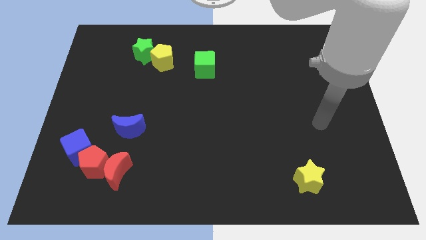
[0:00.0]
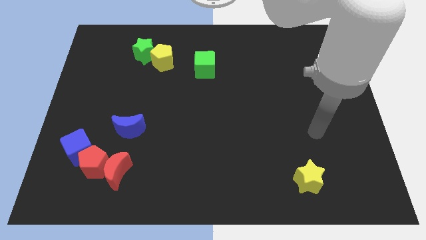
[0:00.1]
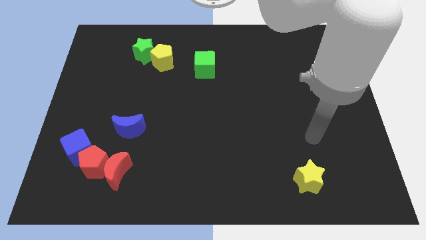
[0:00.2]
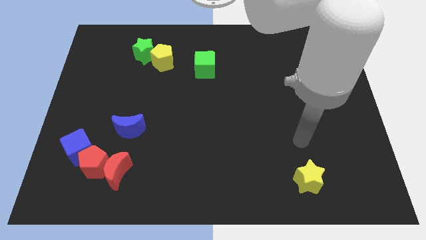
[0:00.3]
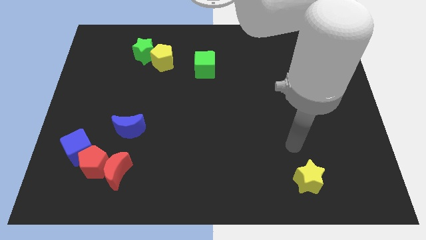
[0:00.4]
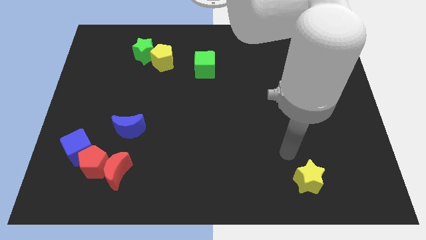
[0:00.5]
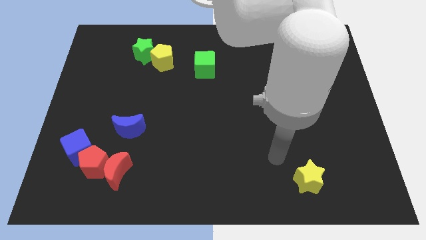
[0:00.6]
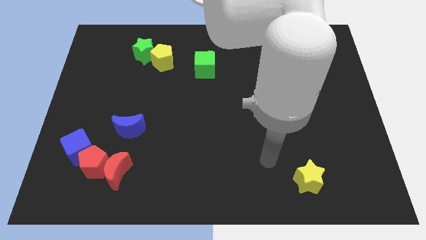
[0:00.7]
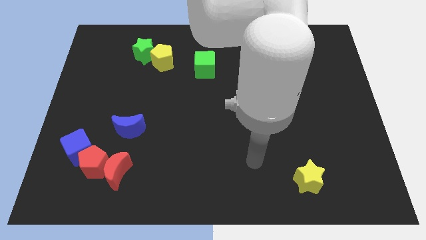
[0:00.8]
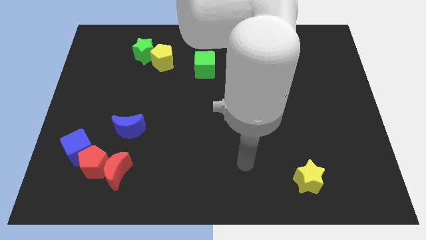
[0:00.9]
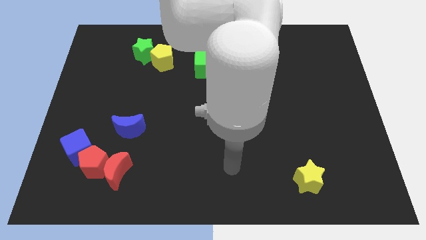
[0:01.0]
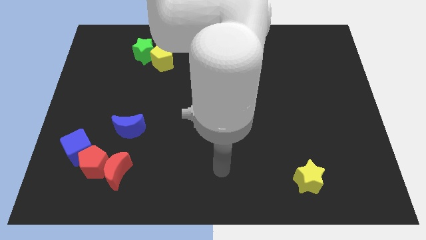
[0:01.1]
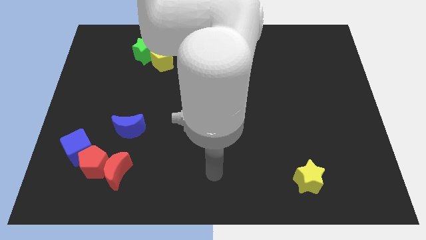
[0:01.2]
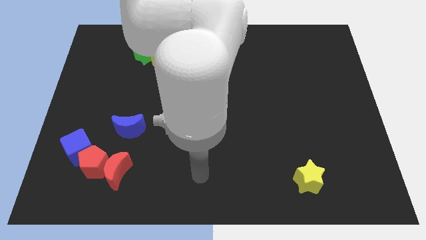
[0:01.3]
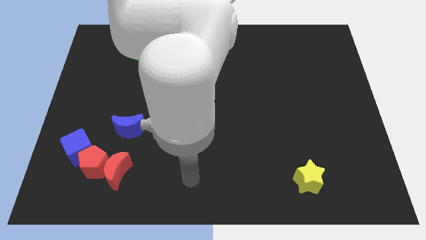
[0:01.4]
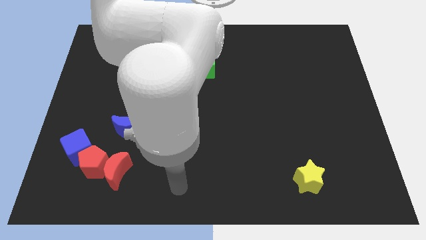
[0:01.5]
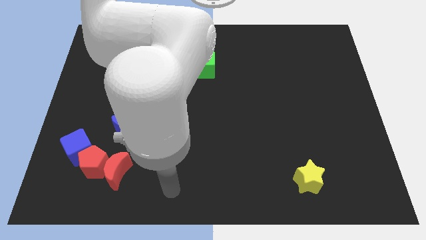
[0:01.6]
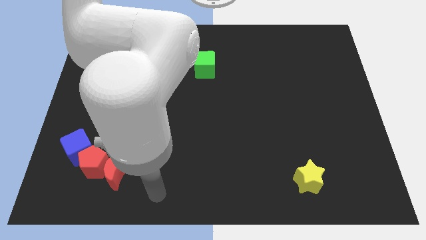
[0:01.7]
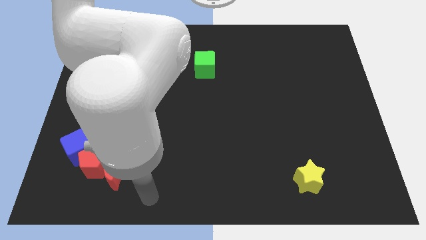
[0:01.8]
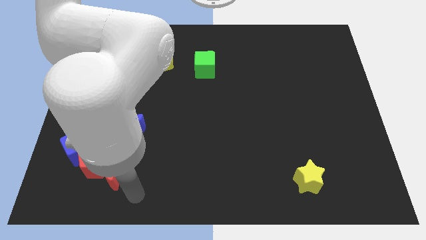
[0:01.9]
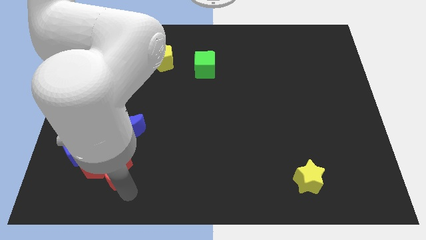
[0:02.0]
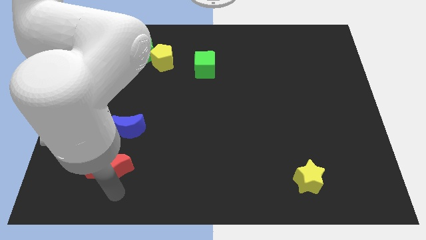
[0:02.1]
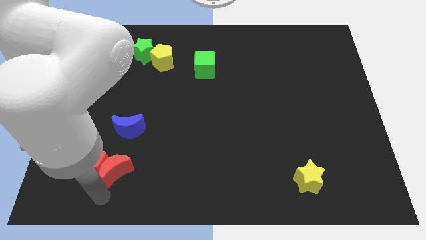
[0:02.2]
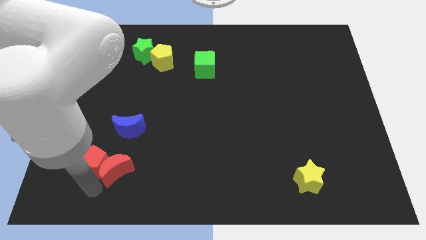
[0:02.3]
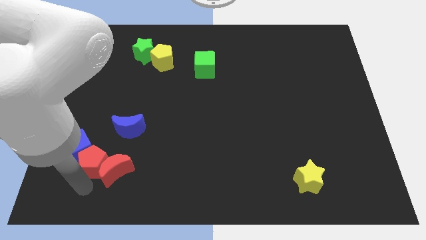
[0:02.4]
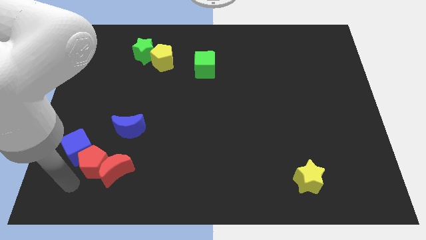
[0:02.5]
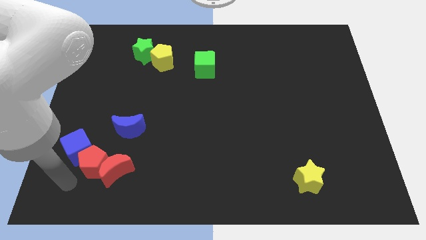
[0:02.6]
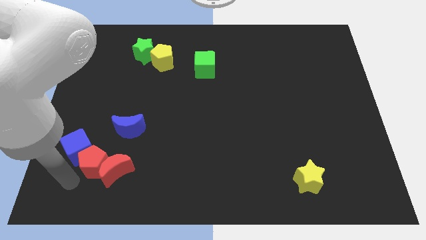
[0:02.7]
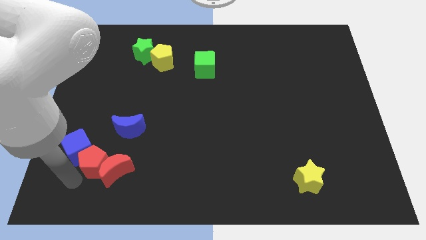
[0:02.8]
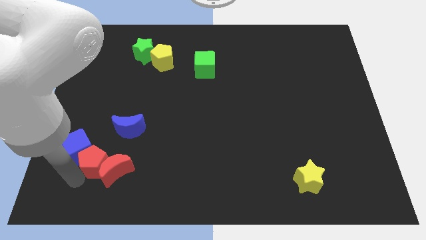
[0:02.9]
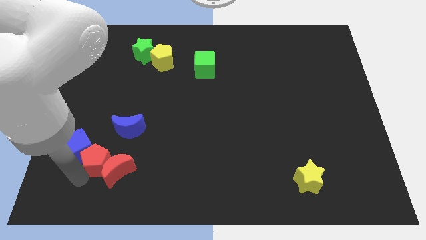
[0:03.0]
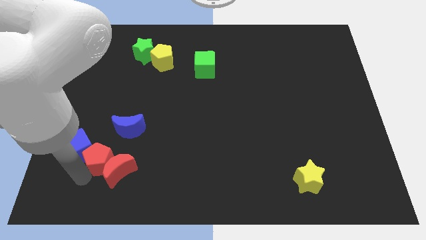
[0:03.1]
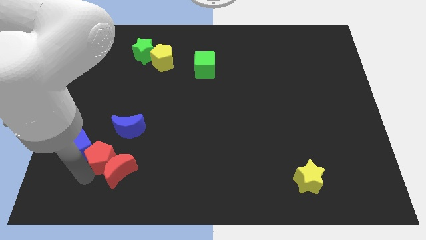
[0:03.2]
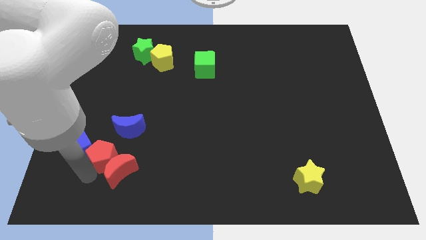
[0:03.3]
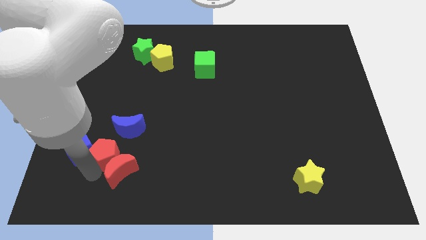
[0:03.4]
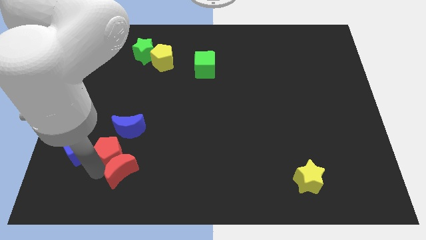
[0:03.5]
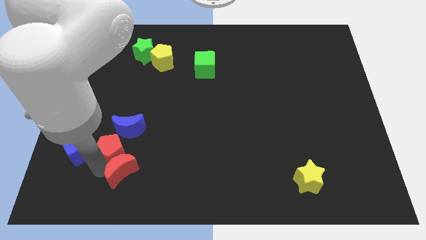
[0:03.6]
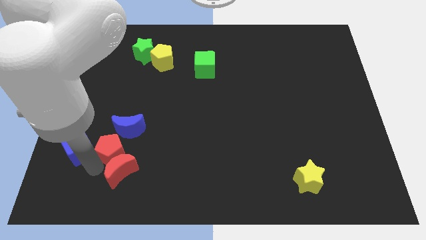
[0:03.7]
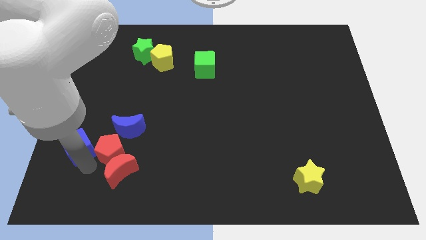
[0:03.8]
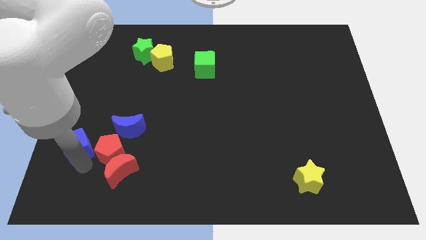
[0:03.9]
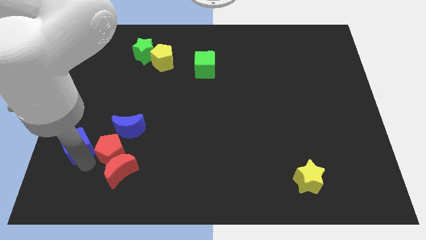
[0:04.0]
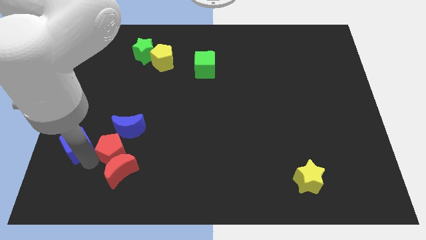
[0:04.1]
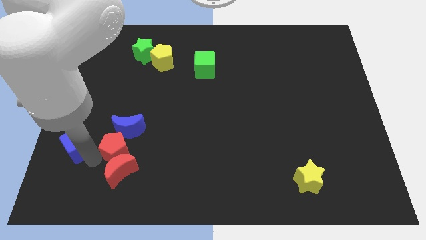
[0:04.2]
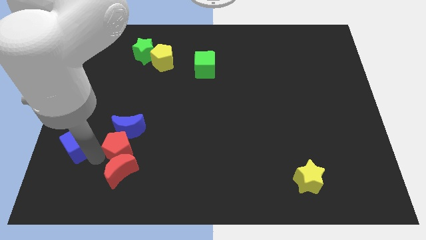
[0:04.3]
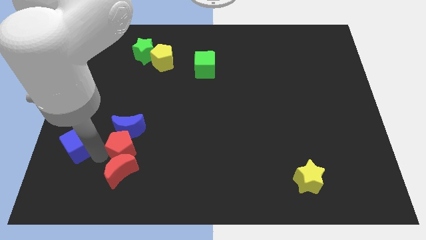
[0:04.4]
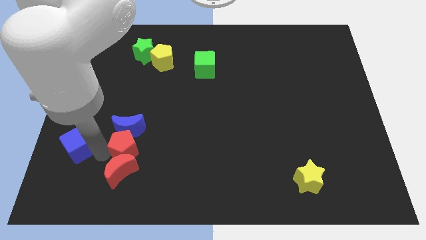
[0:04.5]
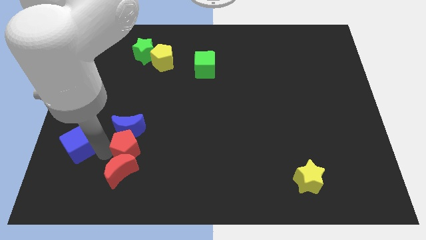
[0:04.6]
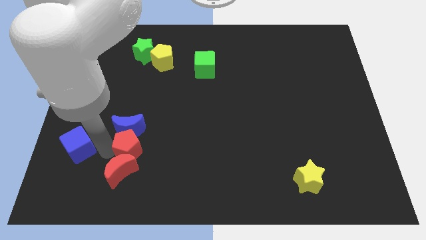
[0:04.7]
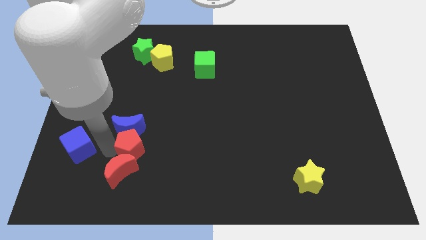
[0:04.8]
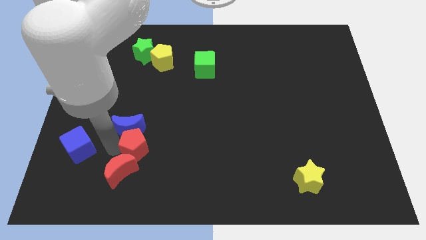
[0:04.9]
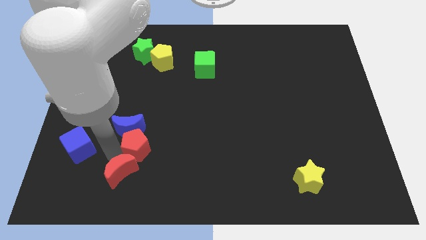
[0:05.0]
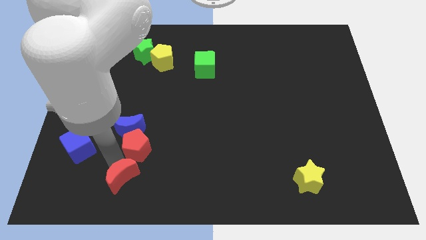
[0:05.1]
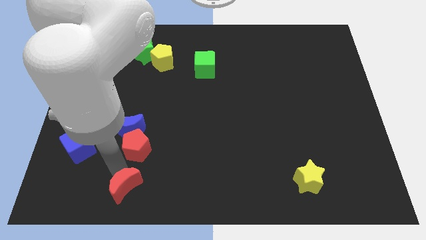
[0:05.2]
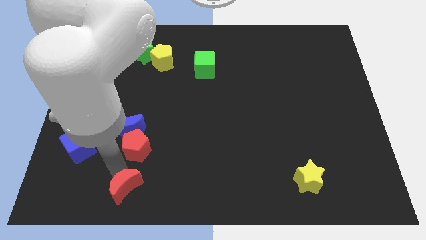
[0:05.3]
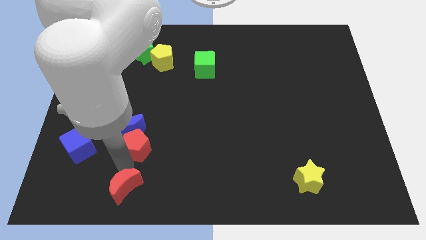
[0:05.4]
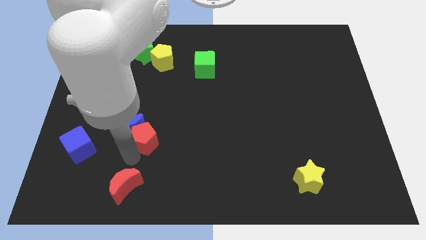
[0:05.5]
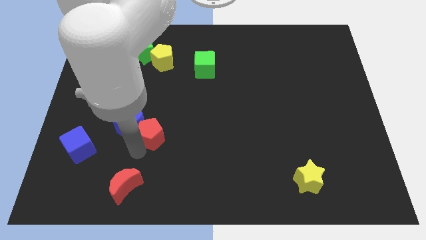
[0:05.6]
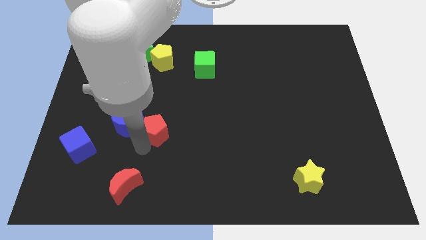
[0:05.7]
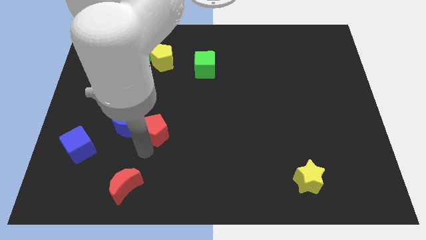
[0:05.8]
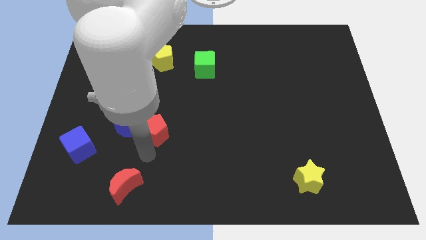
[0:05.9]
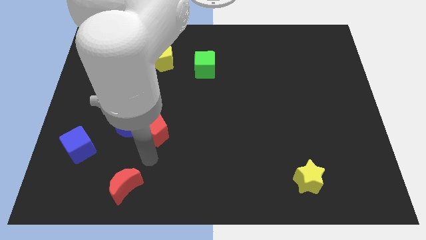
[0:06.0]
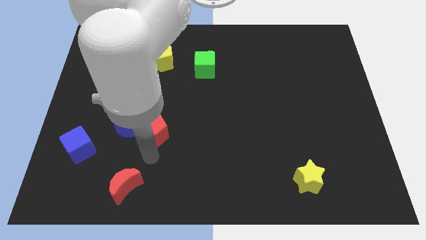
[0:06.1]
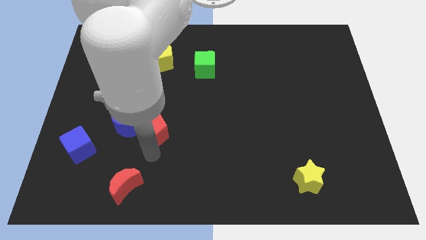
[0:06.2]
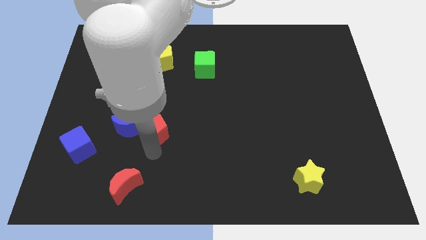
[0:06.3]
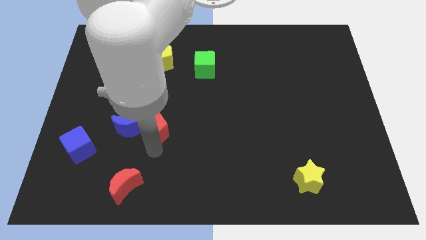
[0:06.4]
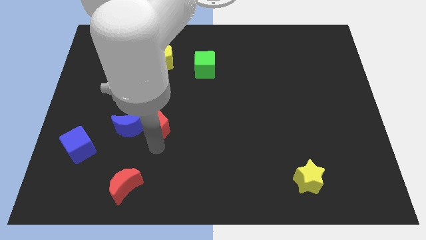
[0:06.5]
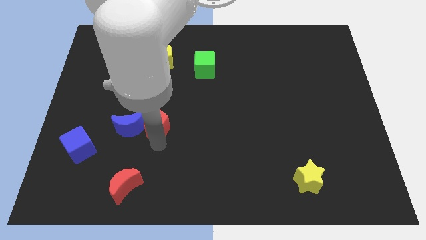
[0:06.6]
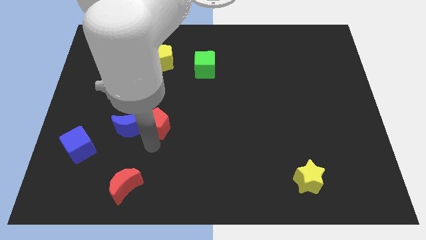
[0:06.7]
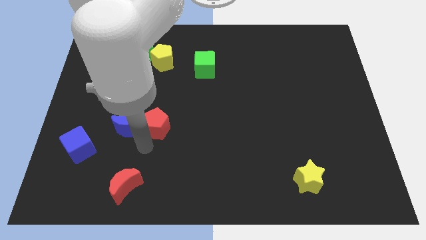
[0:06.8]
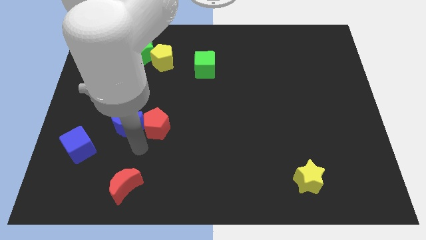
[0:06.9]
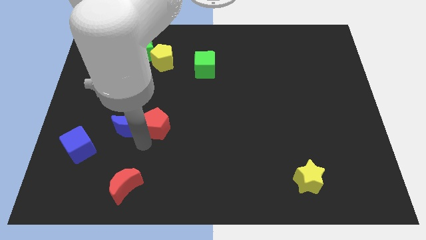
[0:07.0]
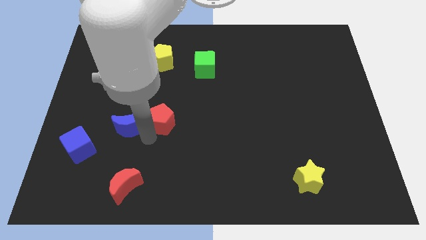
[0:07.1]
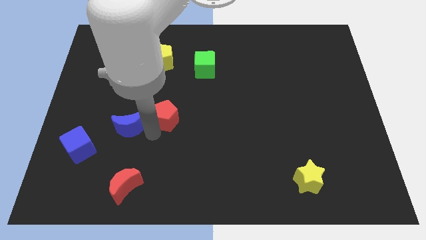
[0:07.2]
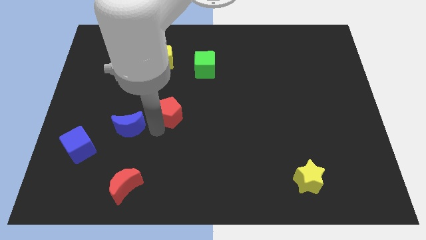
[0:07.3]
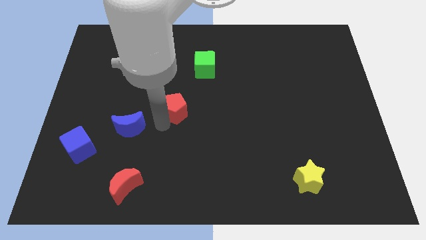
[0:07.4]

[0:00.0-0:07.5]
push the red pentagon diagonally up and right
